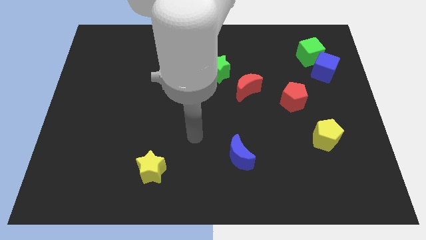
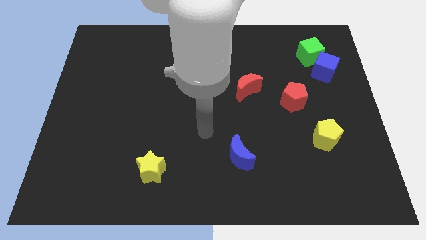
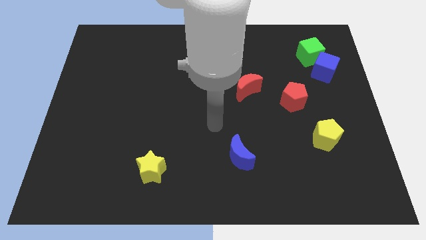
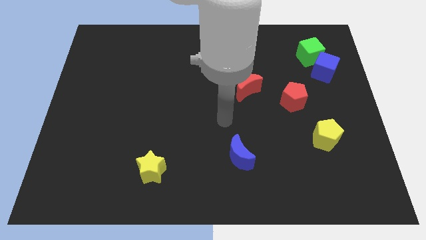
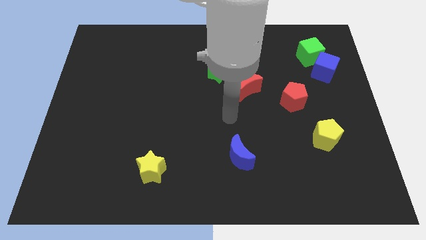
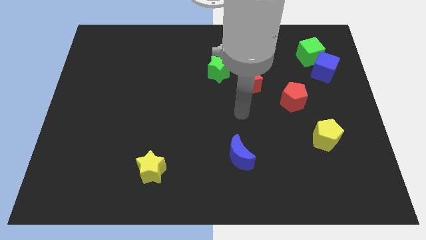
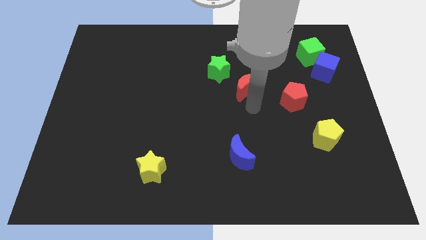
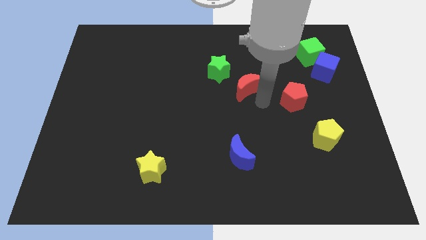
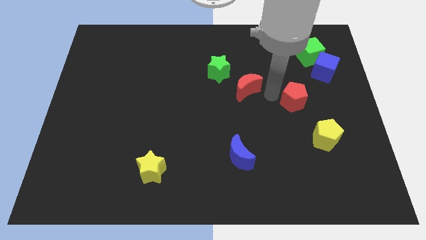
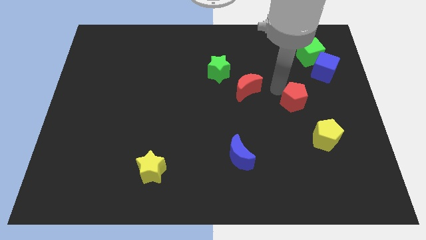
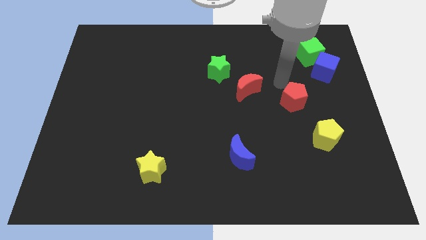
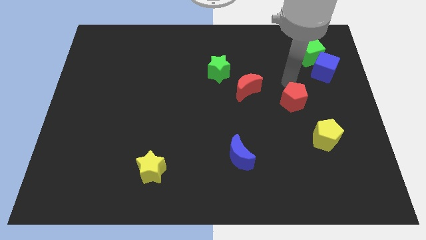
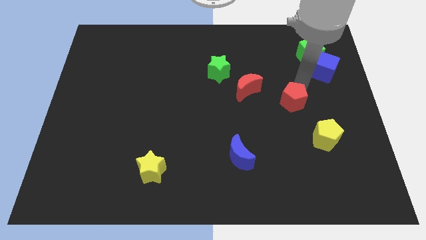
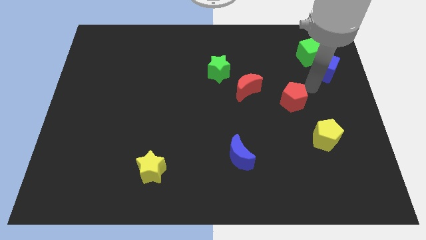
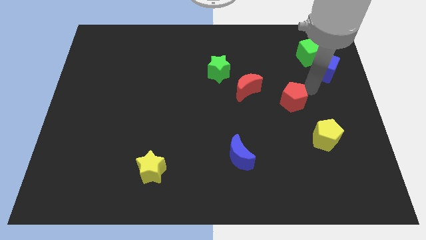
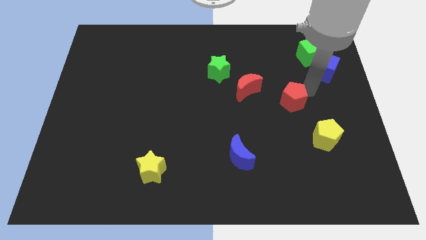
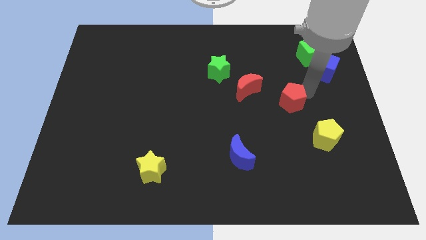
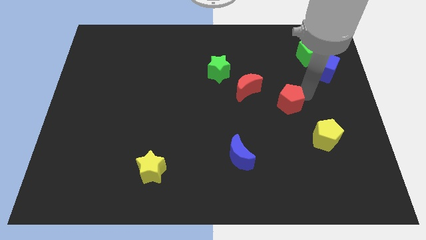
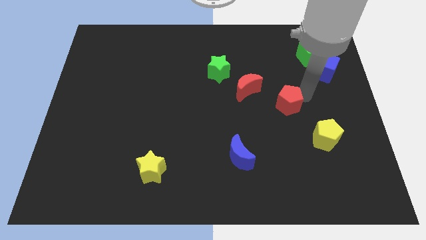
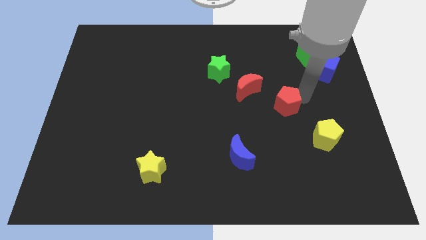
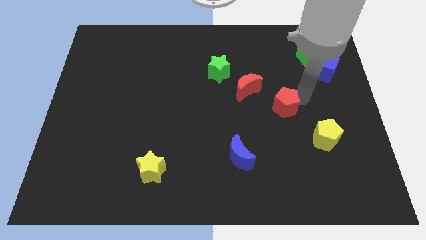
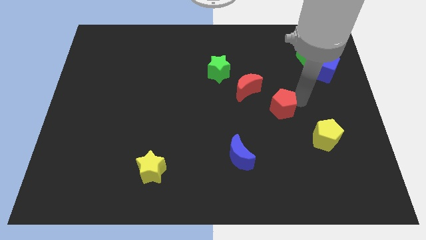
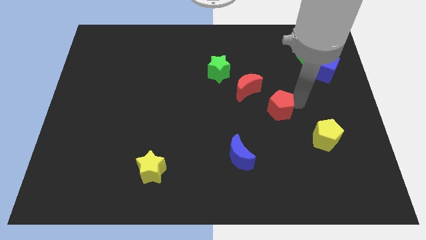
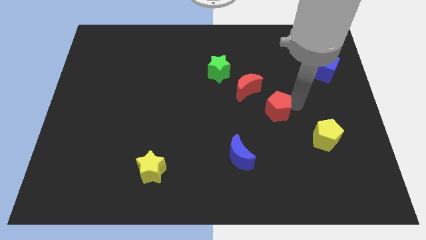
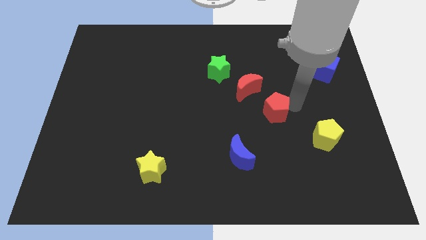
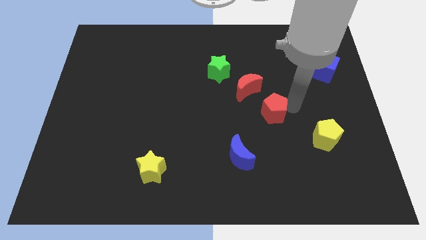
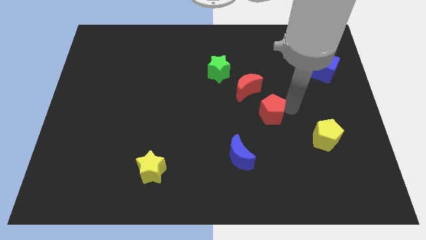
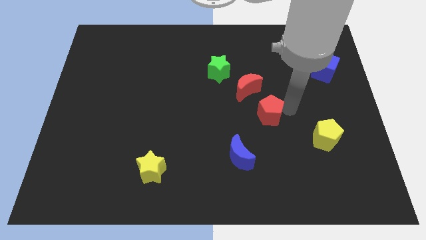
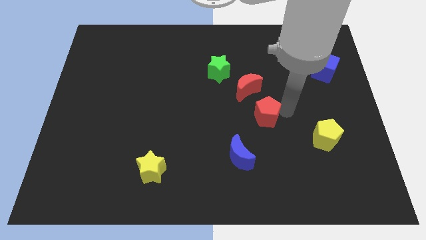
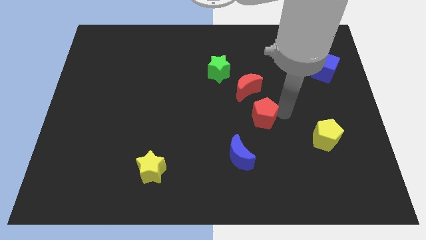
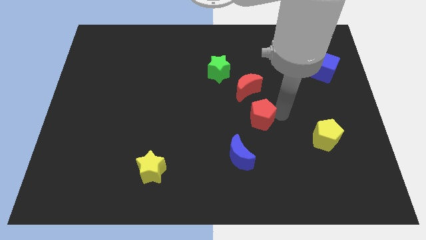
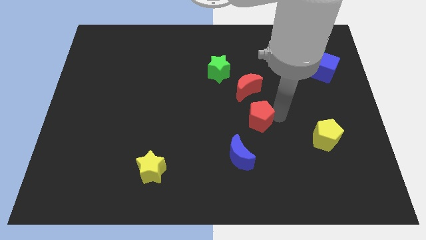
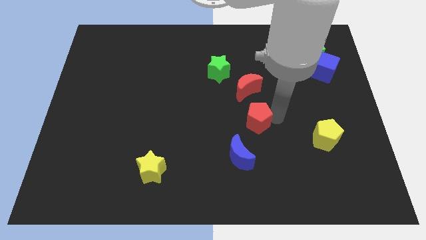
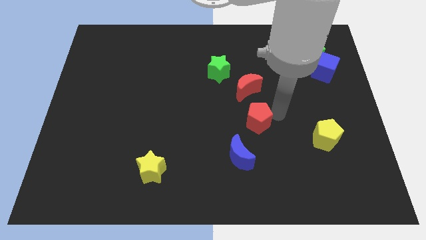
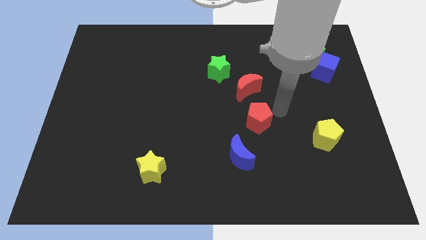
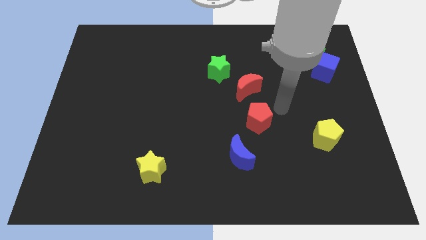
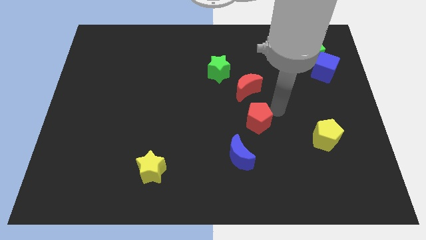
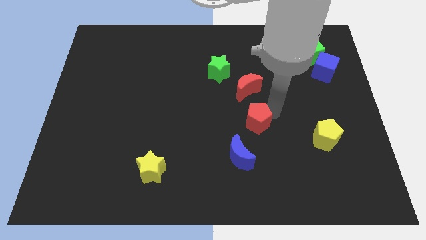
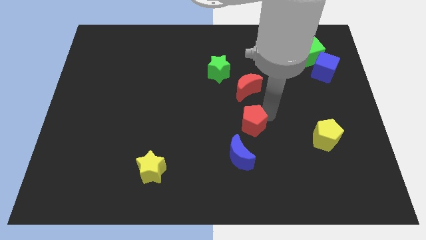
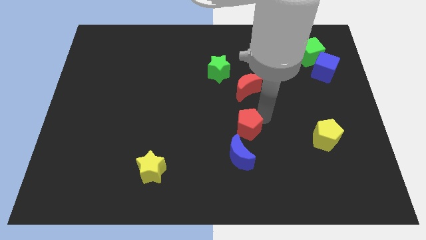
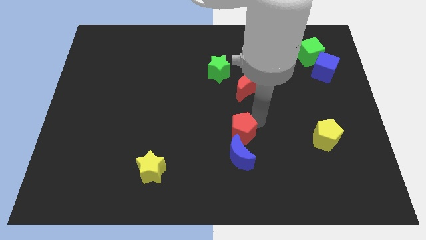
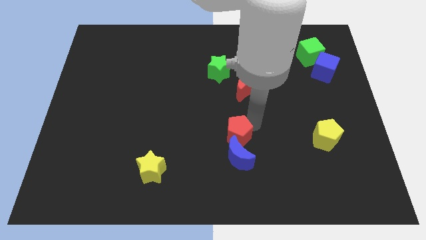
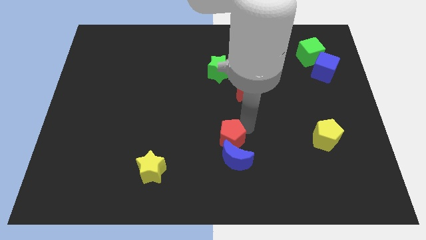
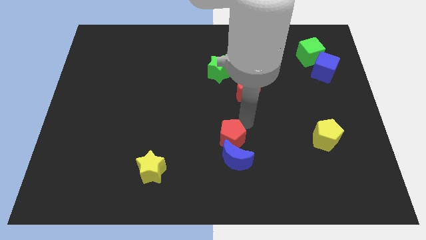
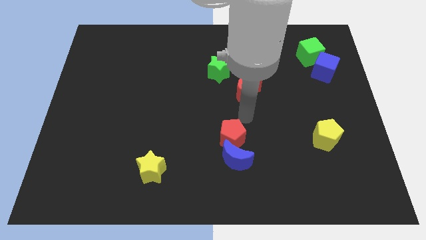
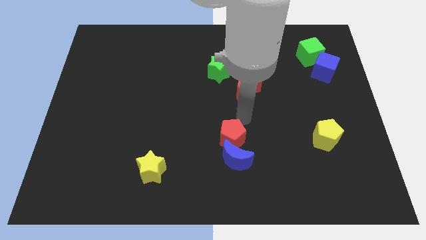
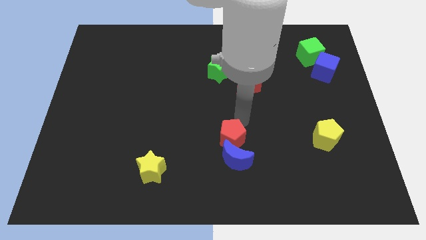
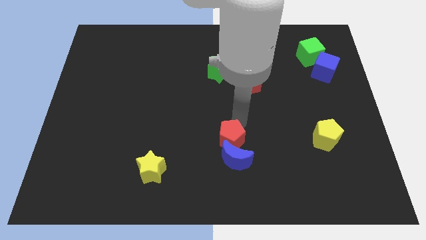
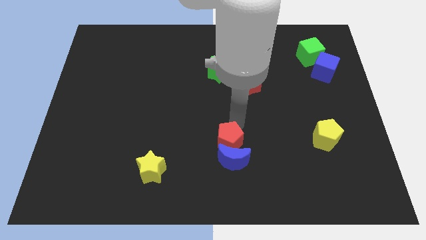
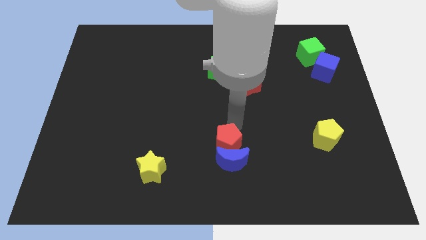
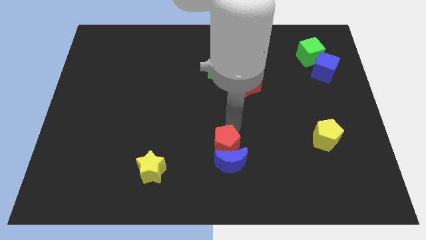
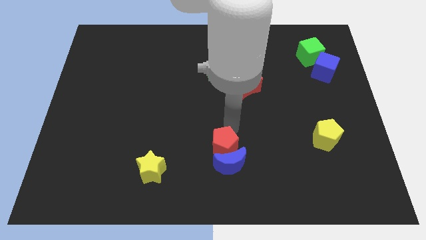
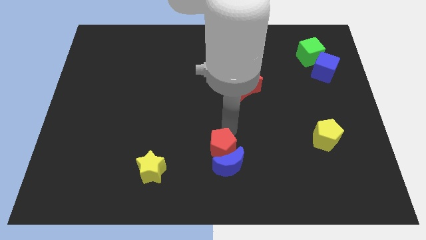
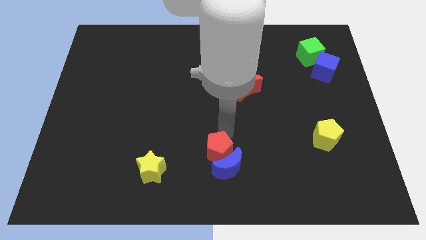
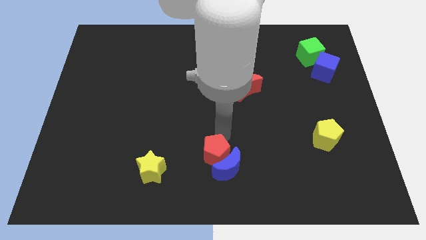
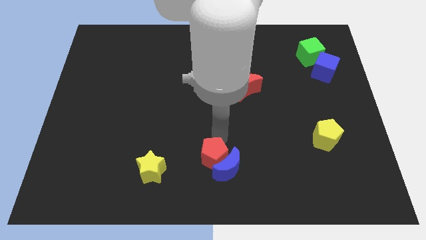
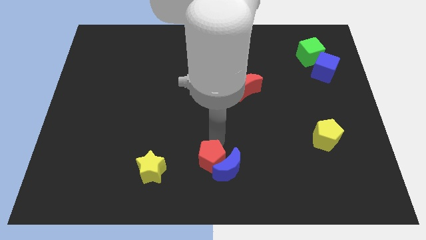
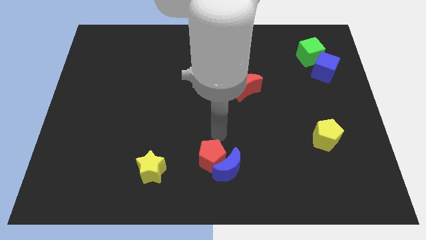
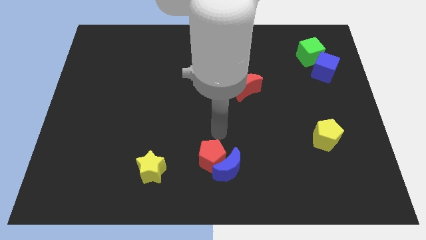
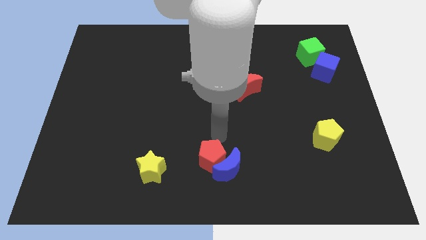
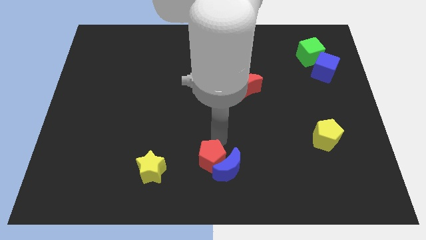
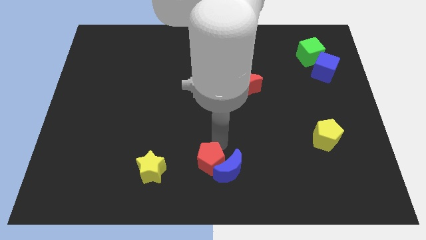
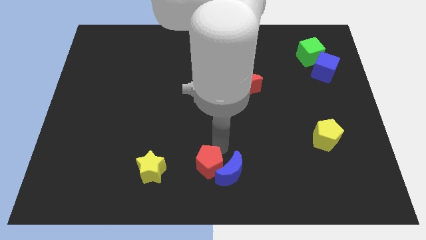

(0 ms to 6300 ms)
move the red pentagon to the bottom left side of the blue moon

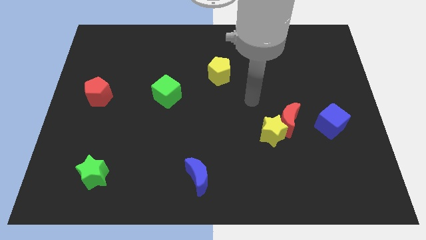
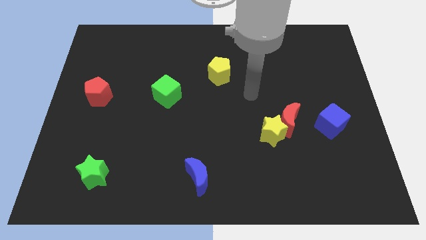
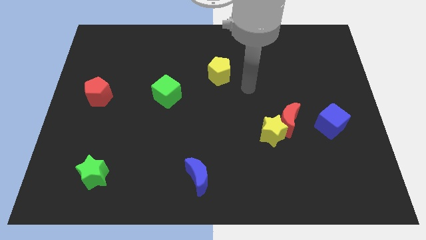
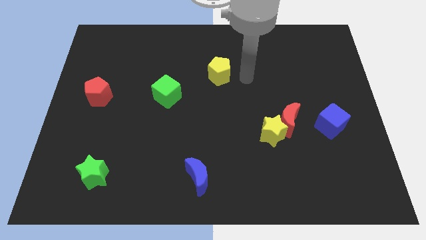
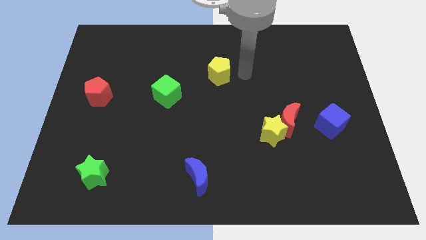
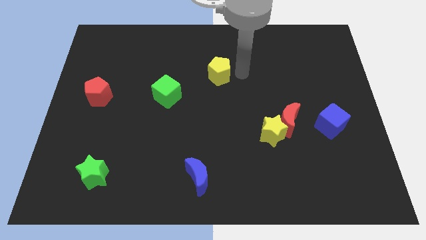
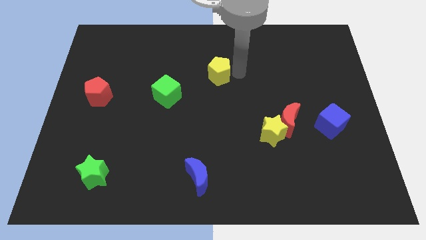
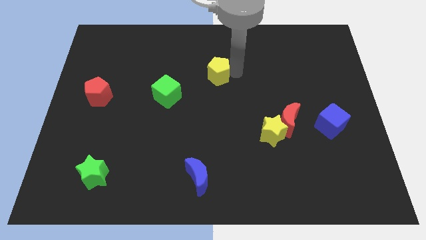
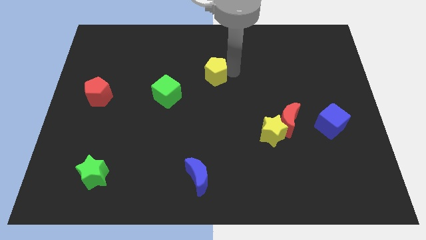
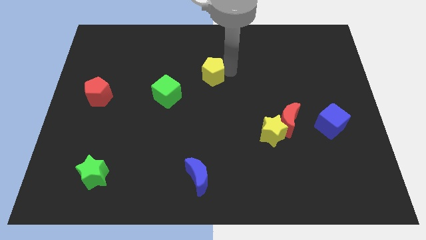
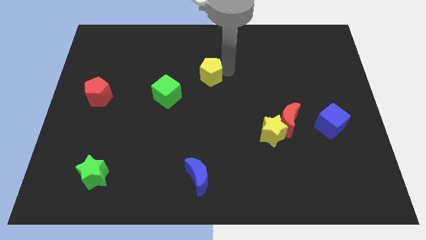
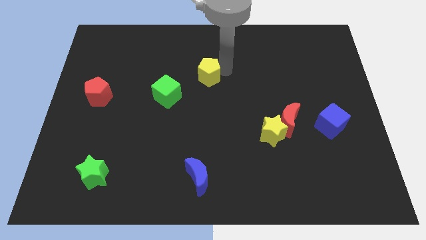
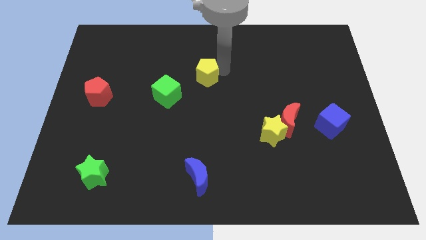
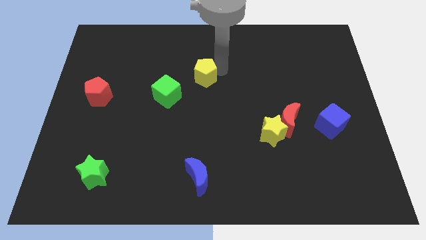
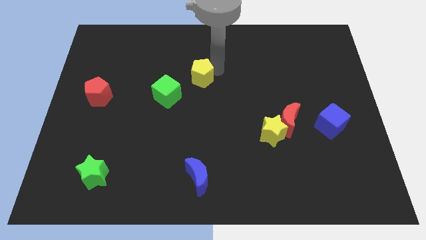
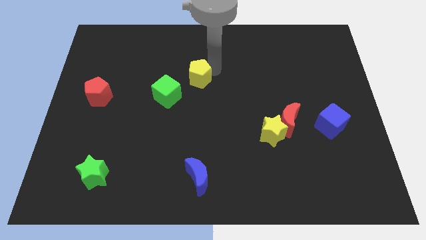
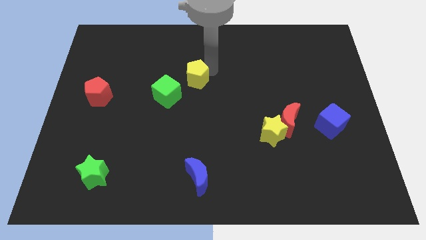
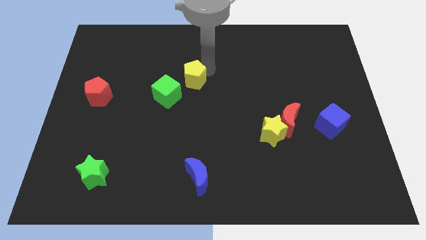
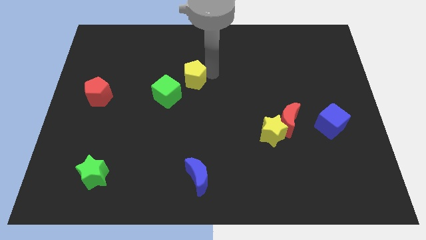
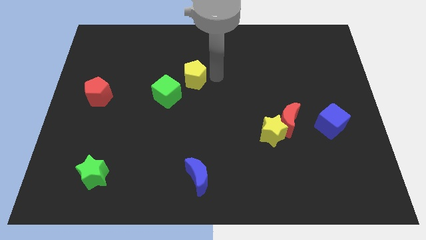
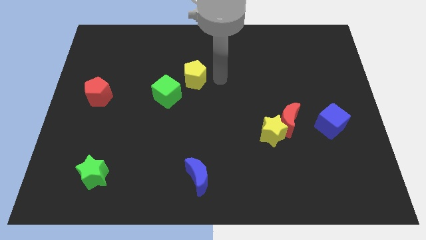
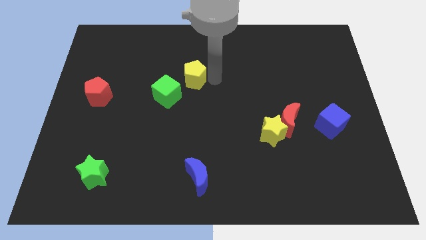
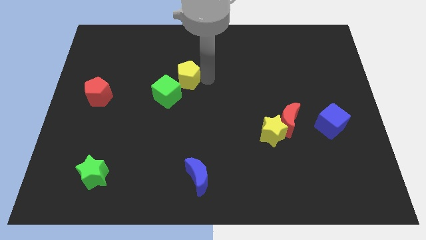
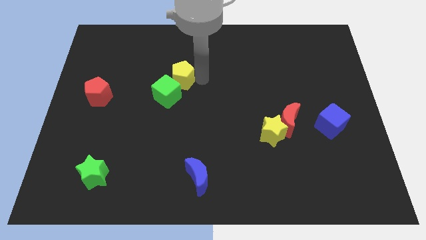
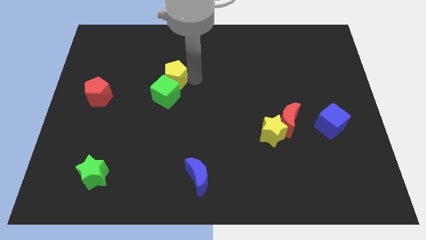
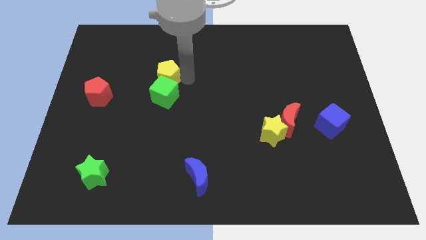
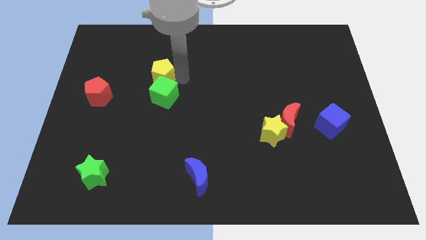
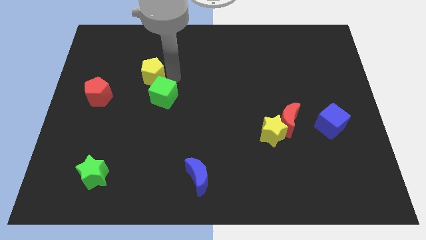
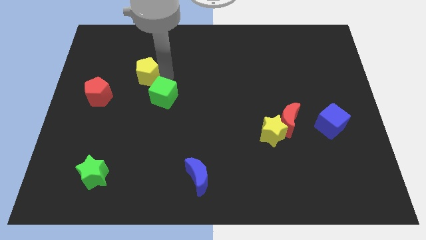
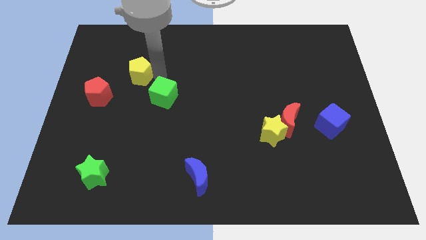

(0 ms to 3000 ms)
put the yellow pentagon diagonally up and to the right of the red pentagon
